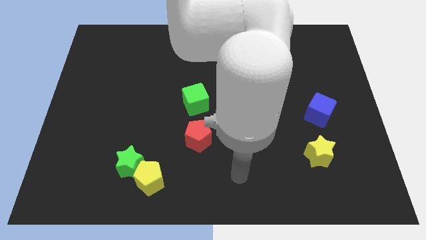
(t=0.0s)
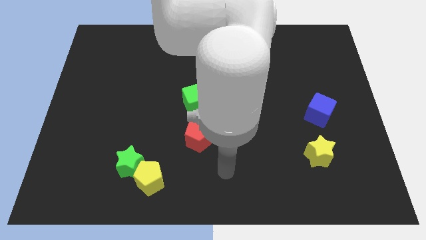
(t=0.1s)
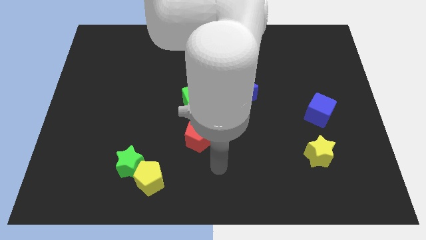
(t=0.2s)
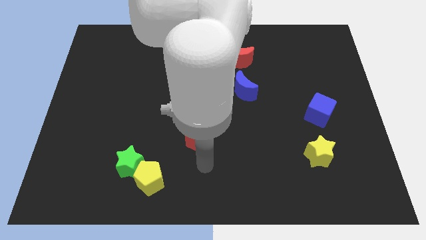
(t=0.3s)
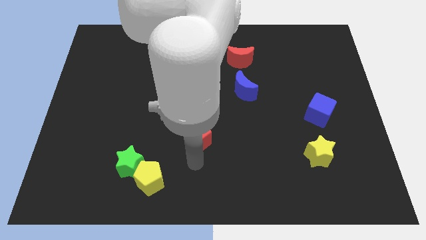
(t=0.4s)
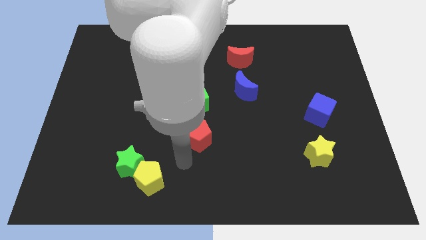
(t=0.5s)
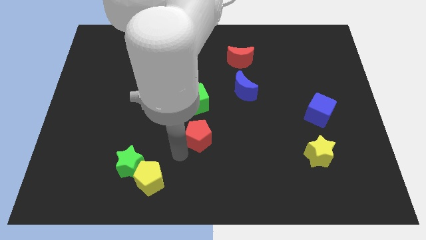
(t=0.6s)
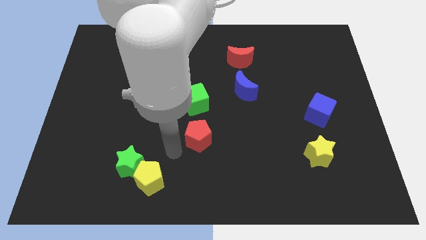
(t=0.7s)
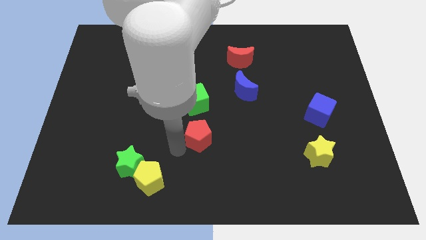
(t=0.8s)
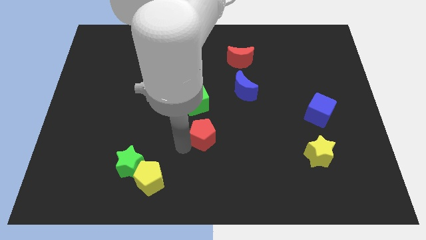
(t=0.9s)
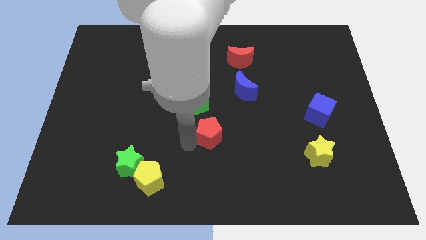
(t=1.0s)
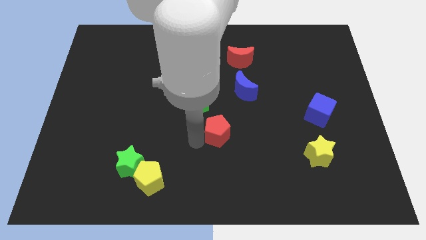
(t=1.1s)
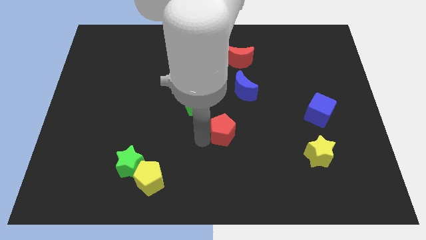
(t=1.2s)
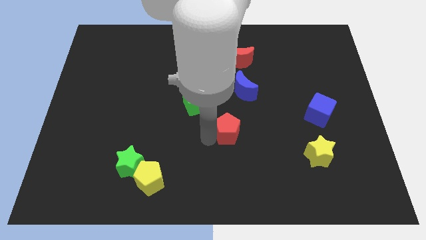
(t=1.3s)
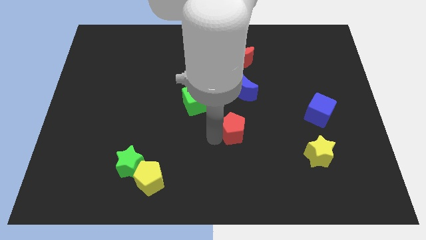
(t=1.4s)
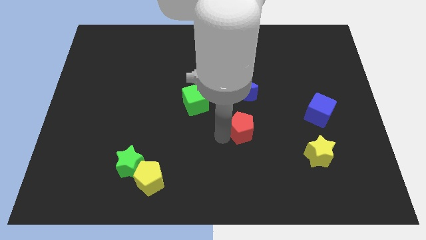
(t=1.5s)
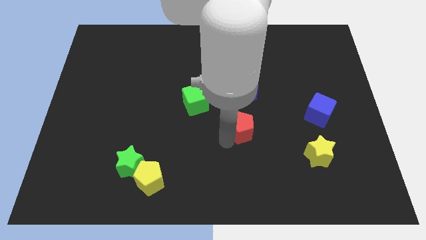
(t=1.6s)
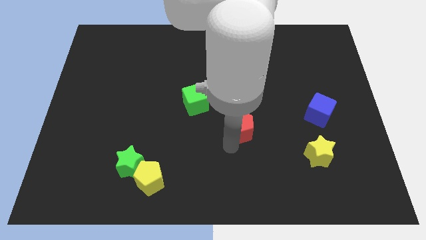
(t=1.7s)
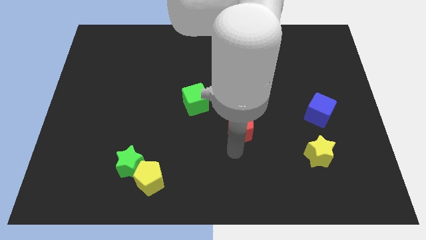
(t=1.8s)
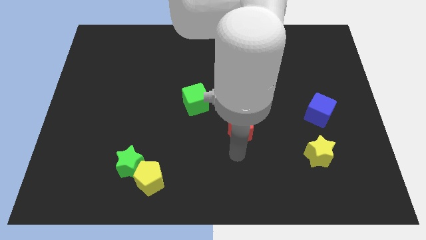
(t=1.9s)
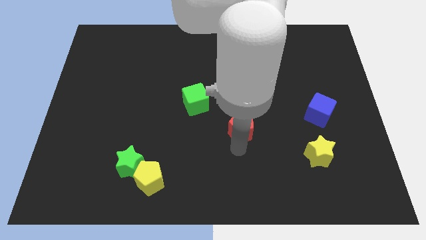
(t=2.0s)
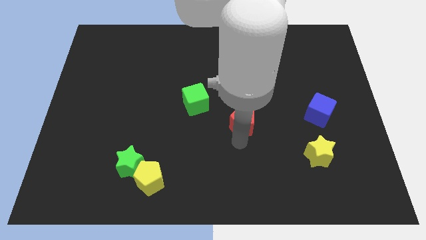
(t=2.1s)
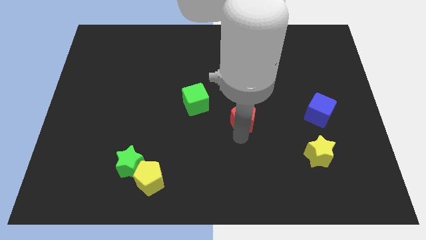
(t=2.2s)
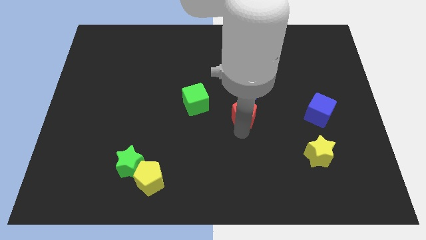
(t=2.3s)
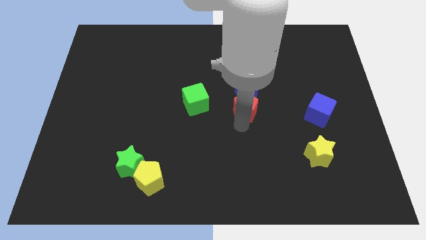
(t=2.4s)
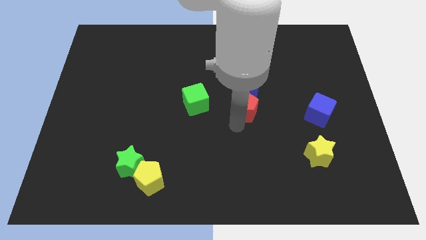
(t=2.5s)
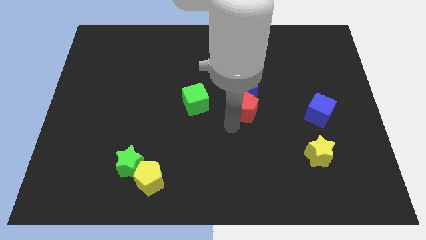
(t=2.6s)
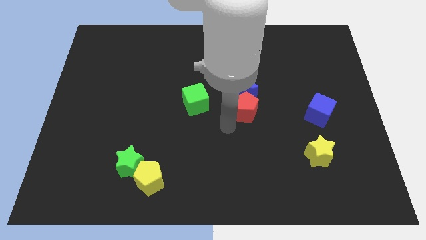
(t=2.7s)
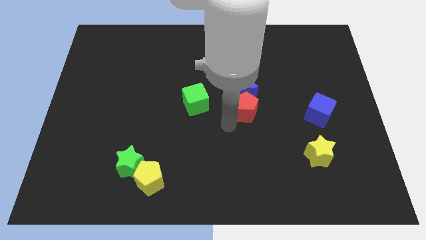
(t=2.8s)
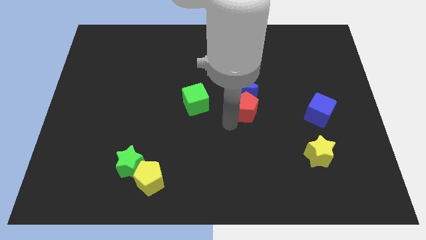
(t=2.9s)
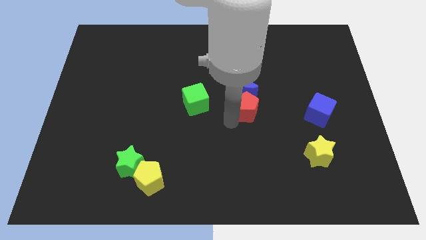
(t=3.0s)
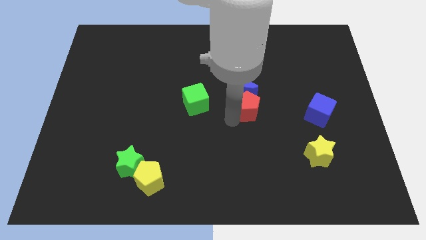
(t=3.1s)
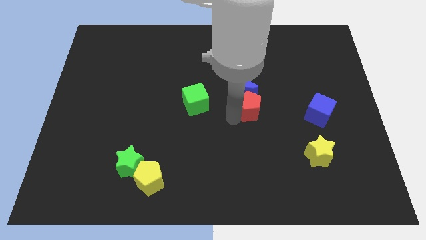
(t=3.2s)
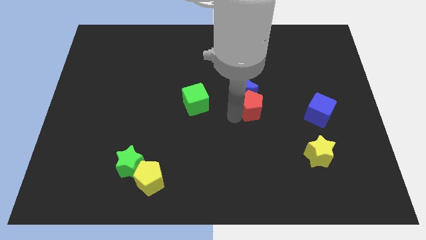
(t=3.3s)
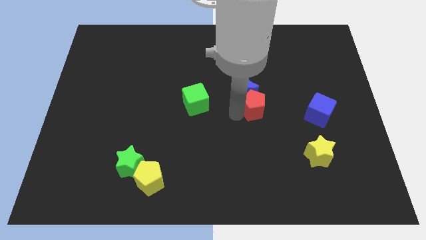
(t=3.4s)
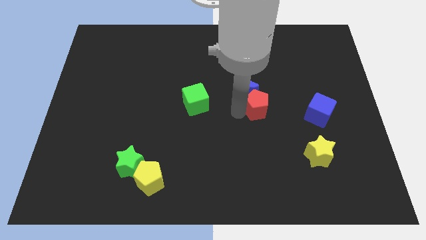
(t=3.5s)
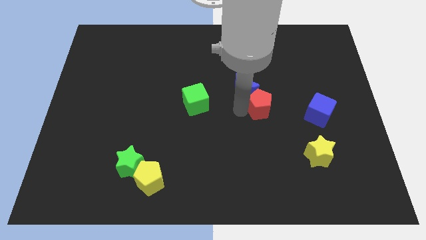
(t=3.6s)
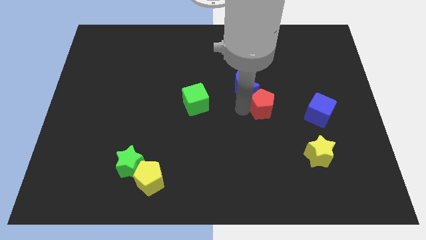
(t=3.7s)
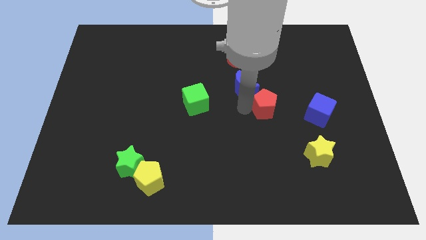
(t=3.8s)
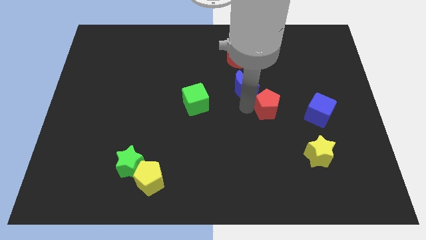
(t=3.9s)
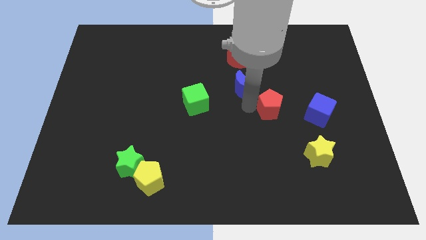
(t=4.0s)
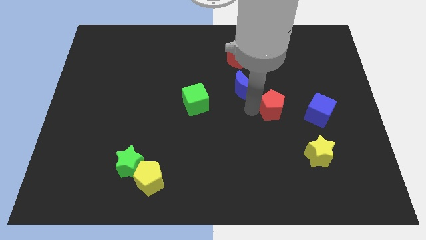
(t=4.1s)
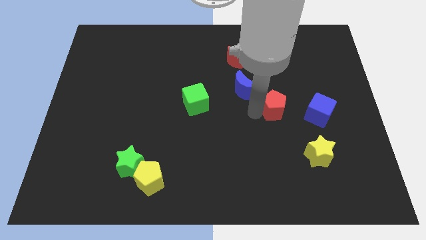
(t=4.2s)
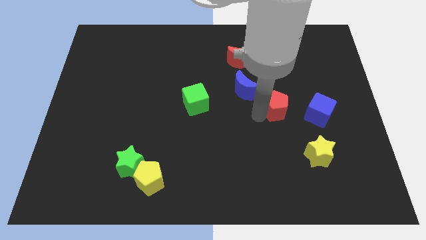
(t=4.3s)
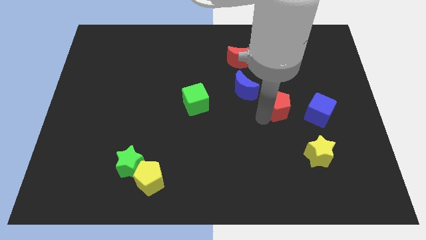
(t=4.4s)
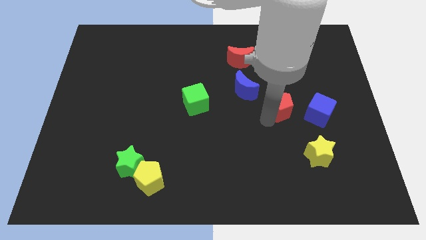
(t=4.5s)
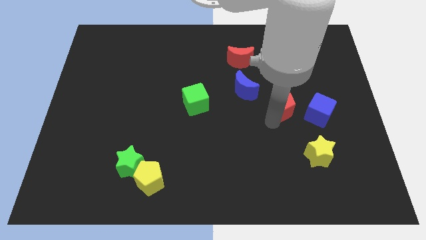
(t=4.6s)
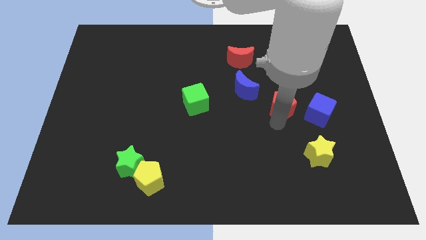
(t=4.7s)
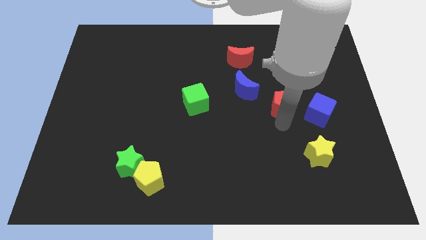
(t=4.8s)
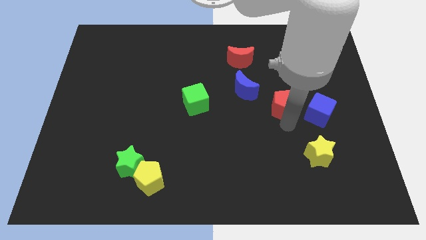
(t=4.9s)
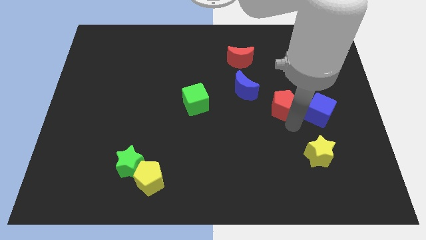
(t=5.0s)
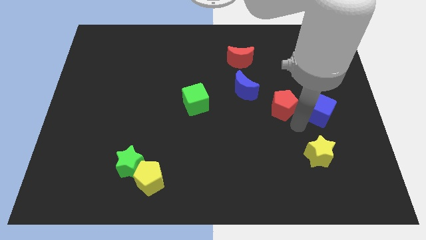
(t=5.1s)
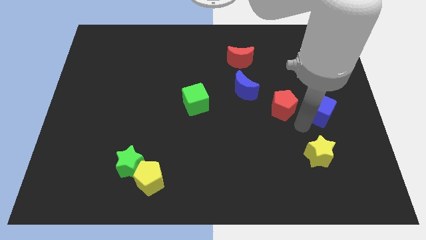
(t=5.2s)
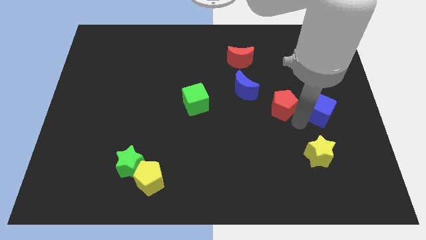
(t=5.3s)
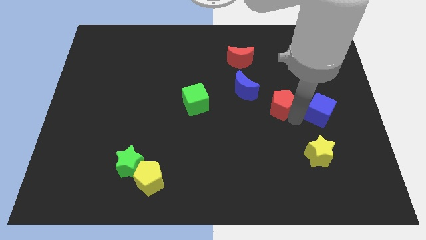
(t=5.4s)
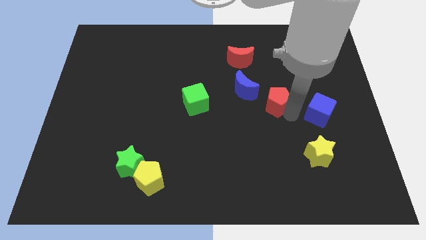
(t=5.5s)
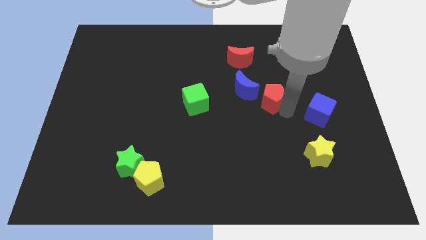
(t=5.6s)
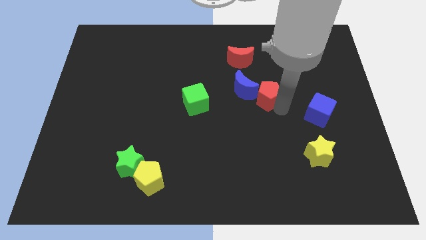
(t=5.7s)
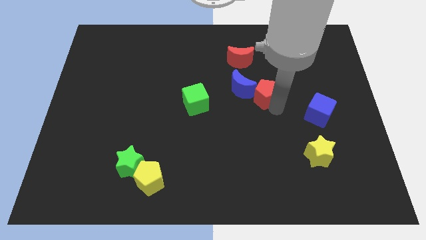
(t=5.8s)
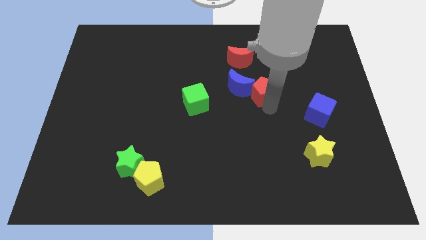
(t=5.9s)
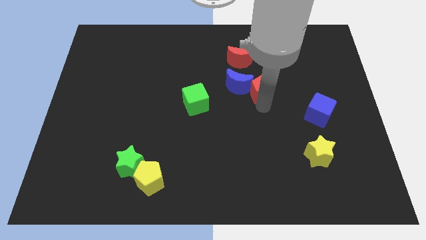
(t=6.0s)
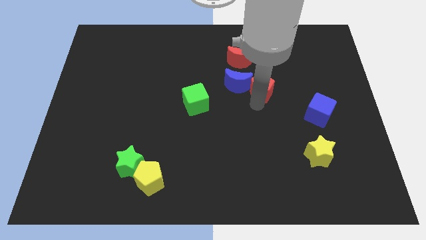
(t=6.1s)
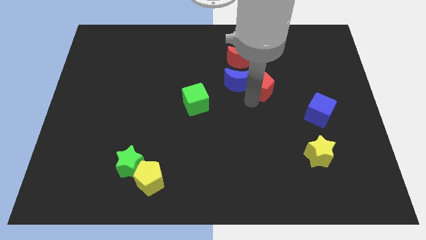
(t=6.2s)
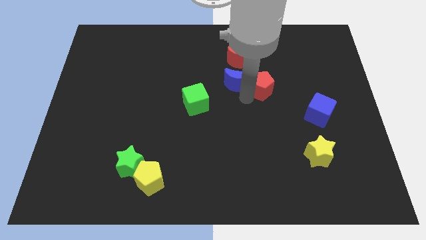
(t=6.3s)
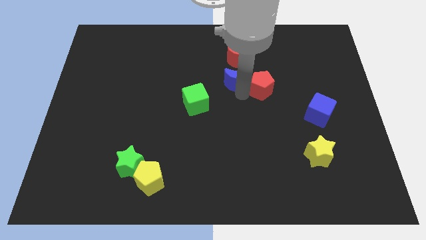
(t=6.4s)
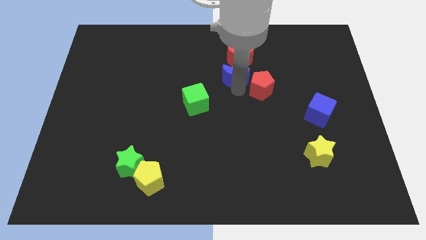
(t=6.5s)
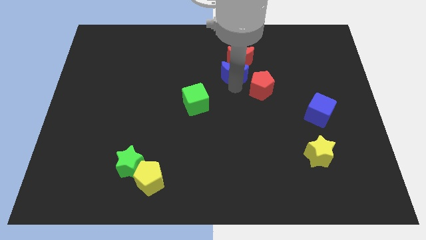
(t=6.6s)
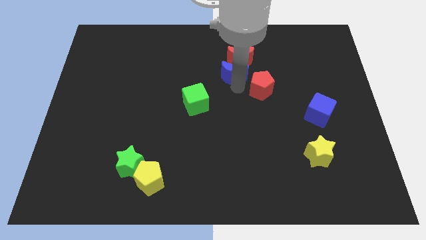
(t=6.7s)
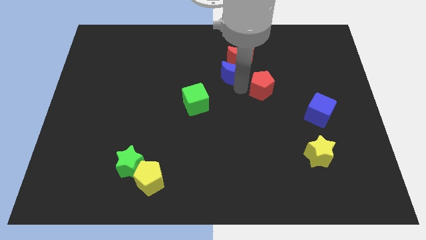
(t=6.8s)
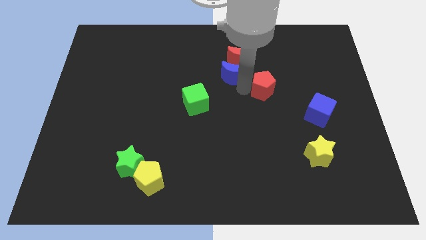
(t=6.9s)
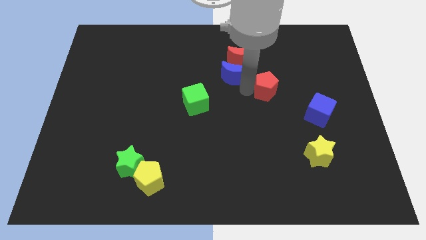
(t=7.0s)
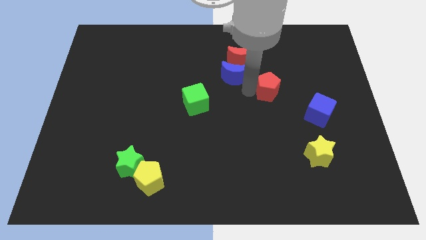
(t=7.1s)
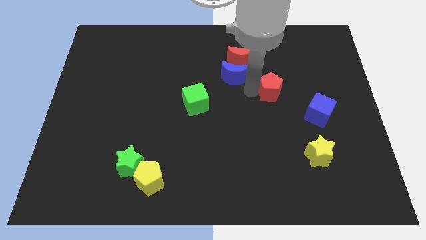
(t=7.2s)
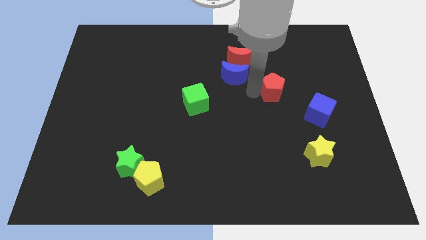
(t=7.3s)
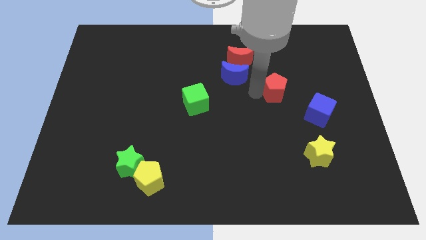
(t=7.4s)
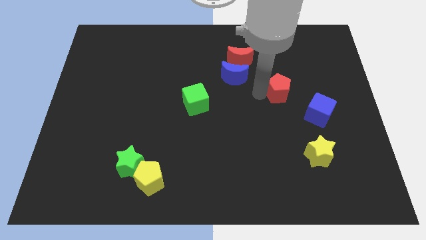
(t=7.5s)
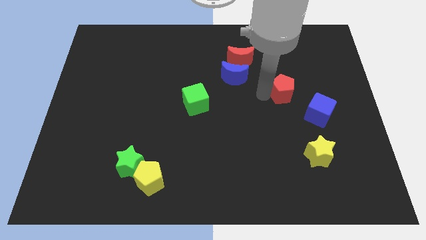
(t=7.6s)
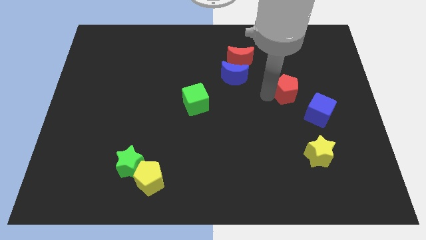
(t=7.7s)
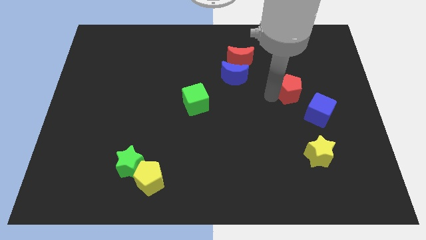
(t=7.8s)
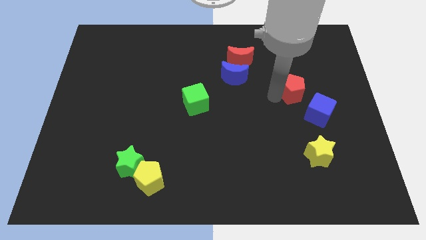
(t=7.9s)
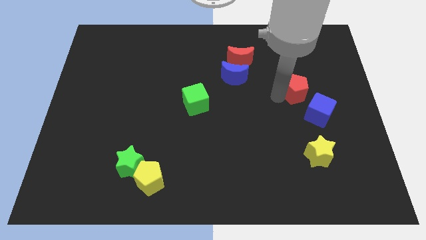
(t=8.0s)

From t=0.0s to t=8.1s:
slide the red pentagon to the top of the blue cube
